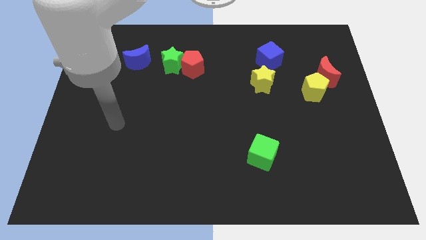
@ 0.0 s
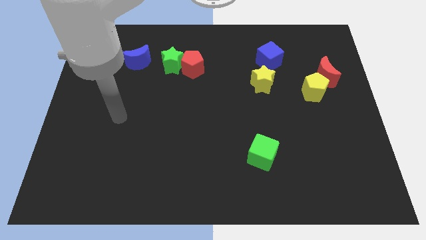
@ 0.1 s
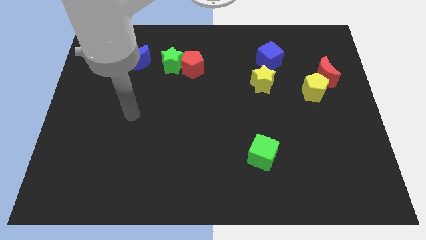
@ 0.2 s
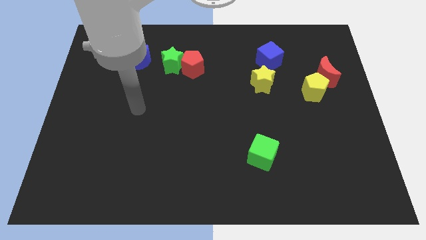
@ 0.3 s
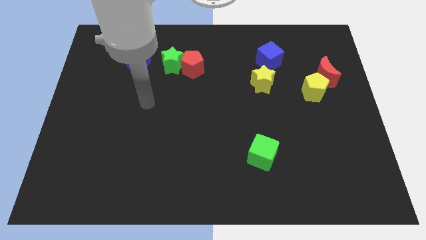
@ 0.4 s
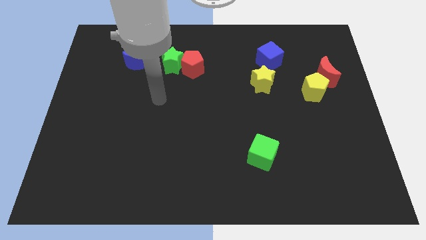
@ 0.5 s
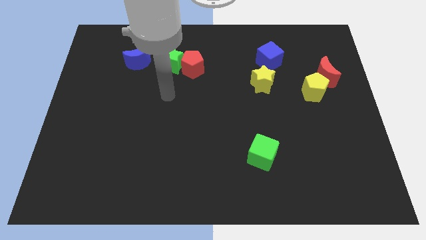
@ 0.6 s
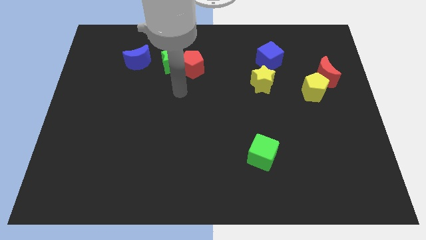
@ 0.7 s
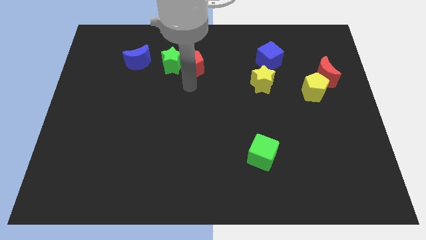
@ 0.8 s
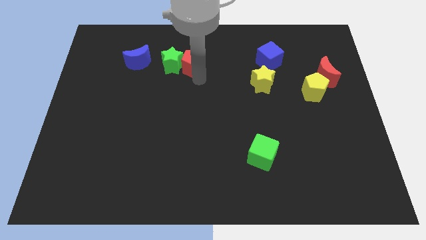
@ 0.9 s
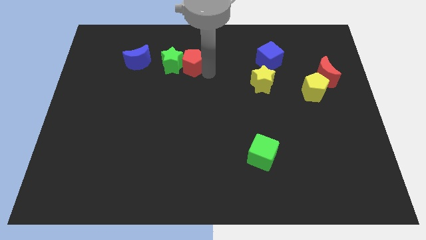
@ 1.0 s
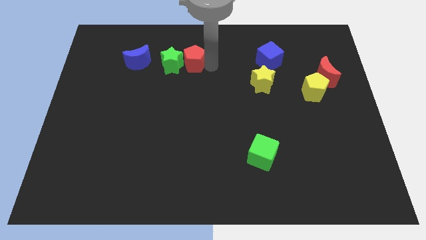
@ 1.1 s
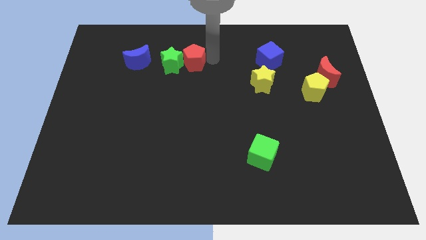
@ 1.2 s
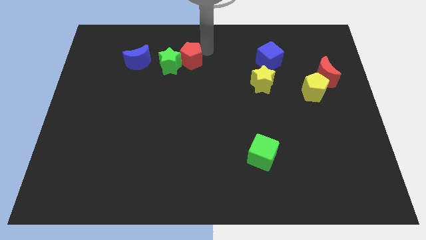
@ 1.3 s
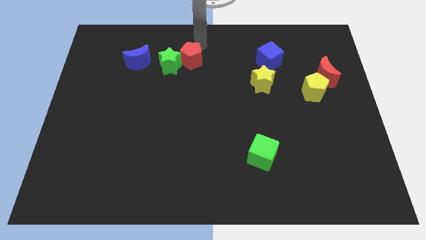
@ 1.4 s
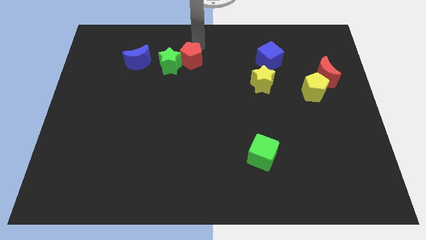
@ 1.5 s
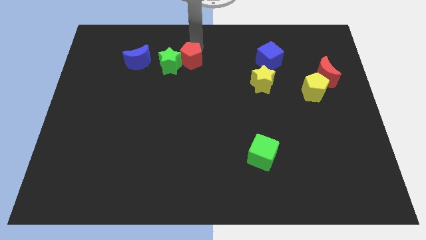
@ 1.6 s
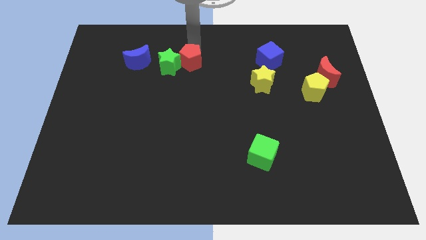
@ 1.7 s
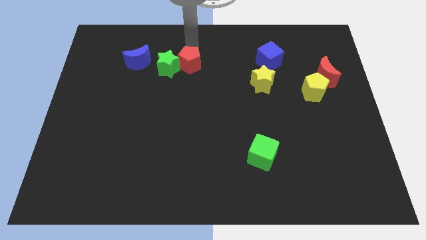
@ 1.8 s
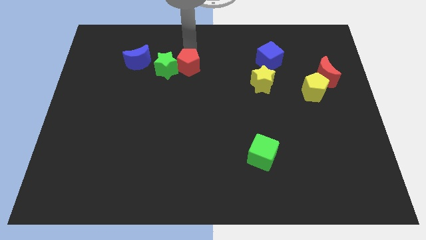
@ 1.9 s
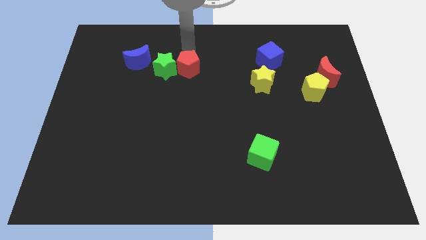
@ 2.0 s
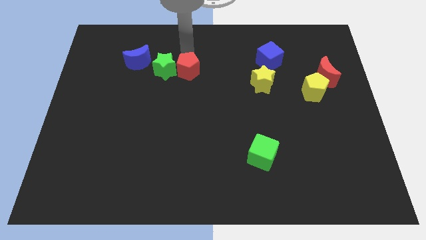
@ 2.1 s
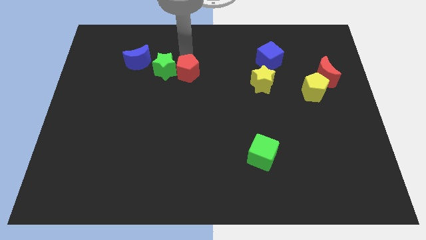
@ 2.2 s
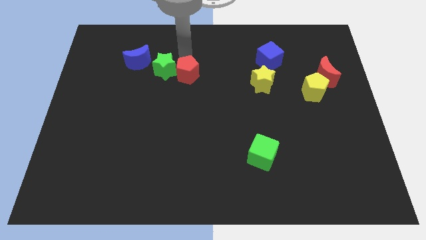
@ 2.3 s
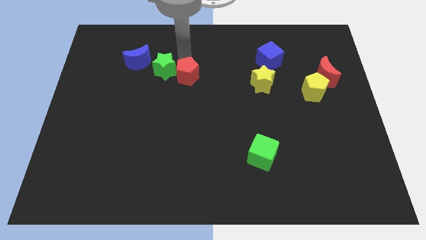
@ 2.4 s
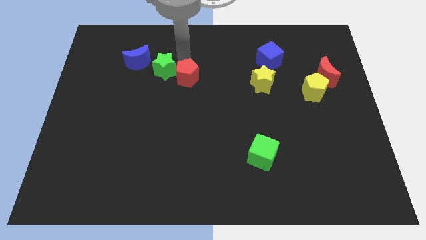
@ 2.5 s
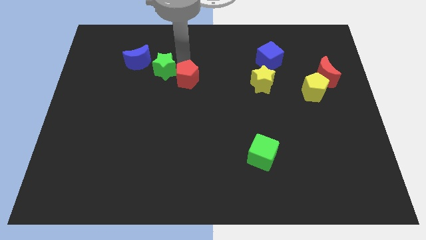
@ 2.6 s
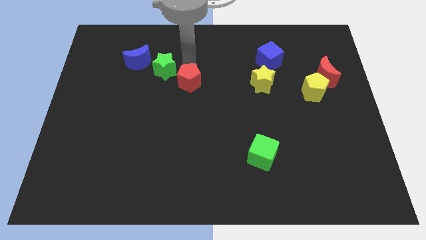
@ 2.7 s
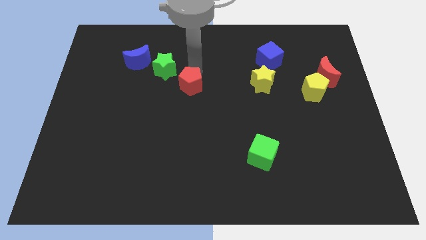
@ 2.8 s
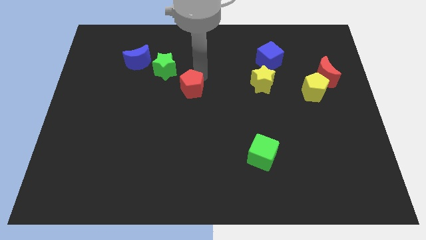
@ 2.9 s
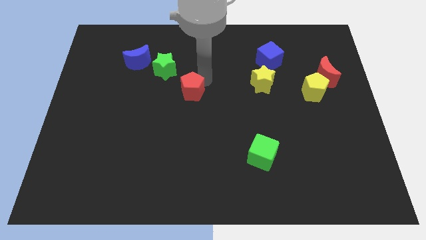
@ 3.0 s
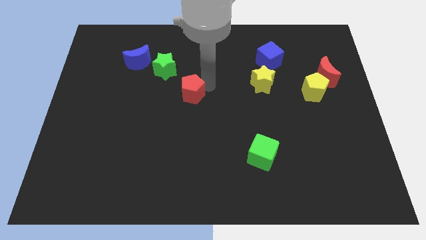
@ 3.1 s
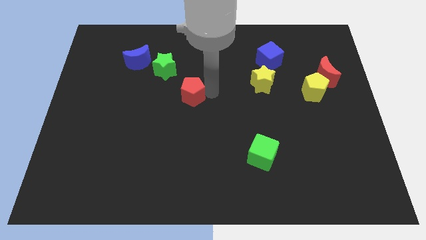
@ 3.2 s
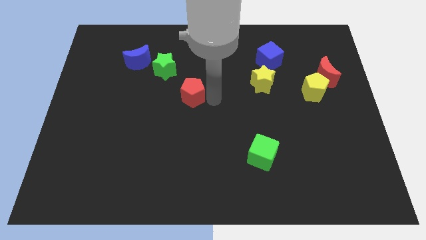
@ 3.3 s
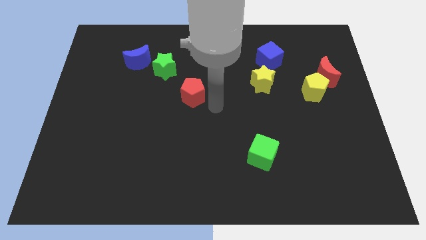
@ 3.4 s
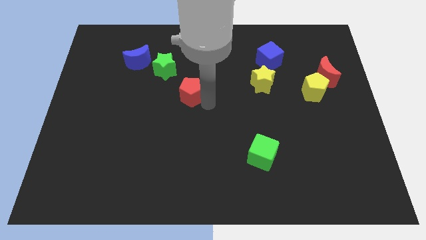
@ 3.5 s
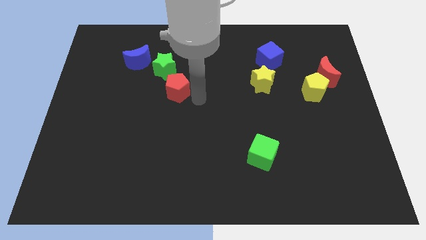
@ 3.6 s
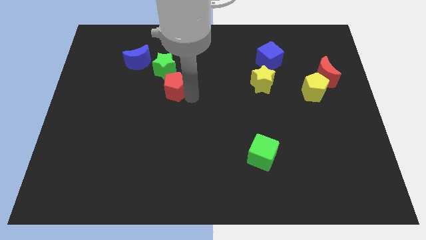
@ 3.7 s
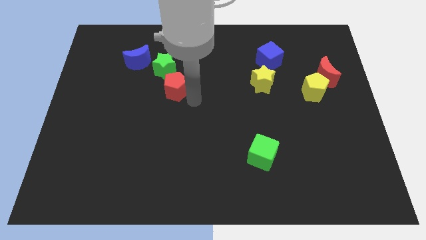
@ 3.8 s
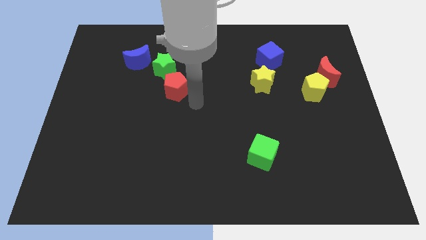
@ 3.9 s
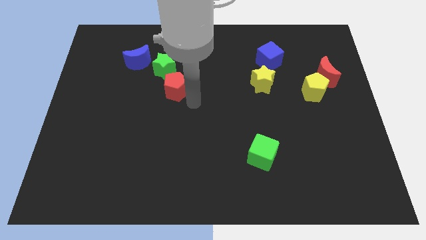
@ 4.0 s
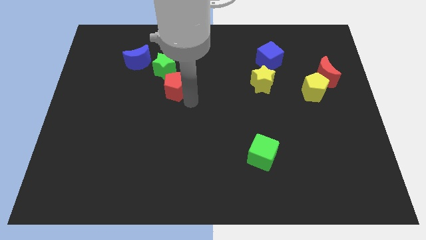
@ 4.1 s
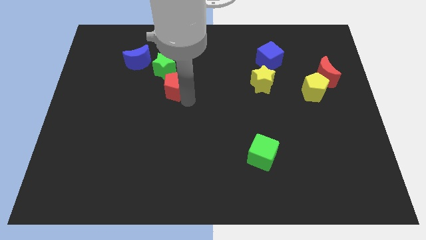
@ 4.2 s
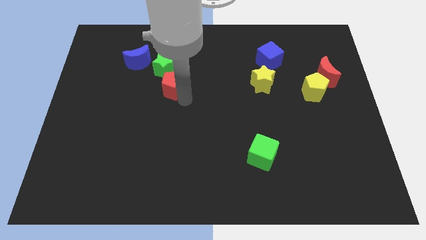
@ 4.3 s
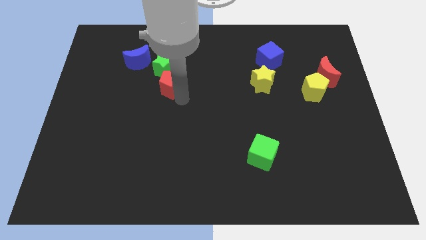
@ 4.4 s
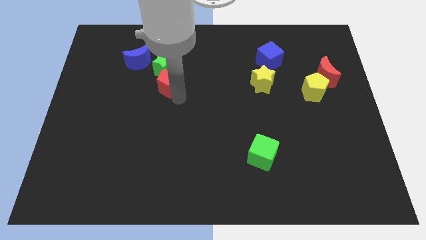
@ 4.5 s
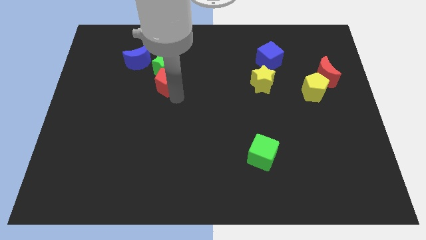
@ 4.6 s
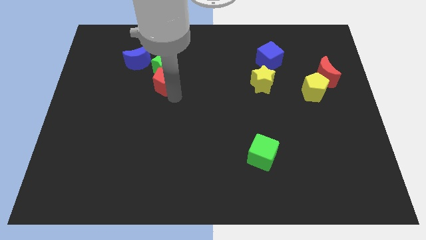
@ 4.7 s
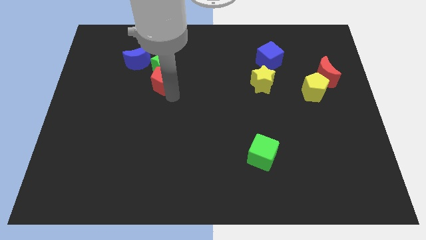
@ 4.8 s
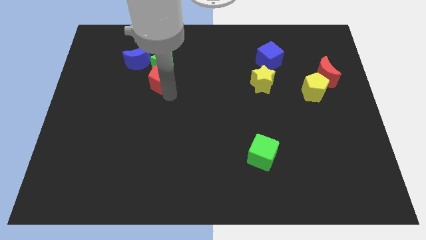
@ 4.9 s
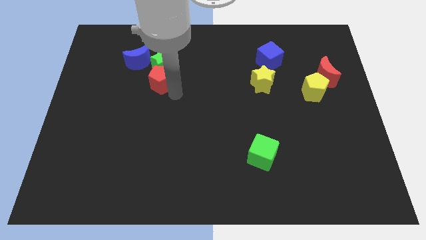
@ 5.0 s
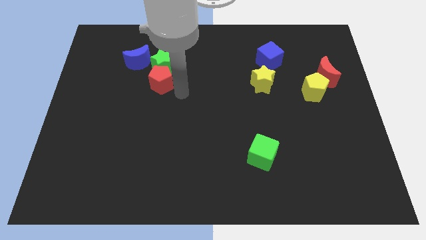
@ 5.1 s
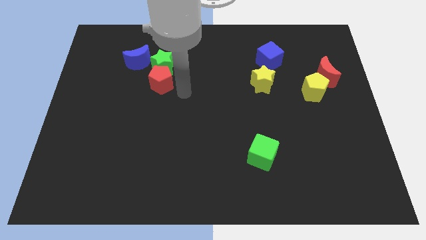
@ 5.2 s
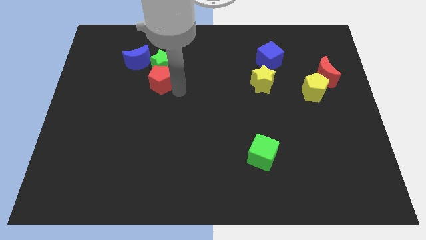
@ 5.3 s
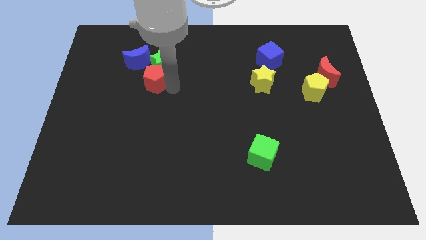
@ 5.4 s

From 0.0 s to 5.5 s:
slide the red pentagon left a little bit

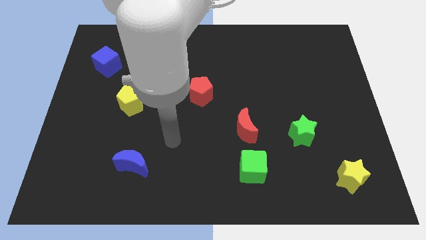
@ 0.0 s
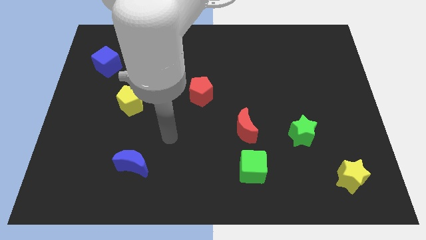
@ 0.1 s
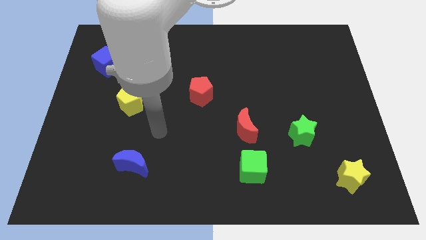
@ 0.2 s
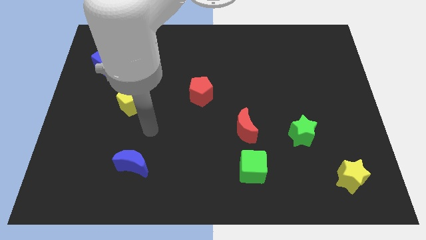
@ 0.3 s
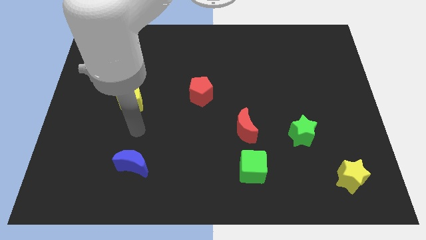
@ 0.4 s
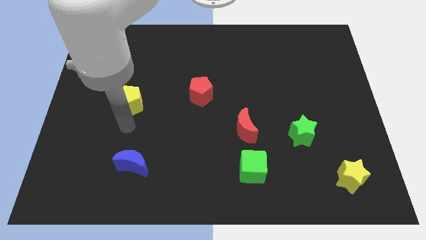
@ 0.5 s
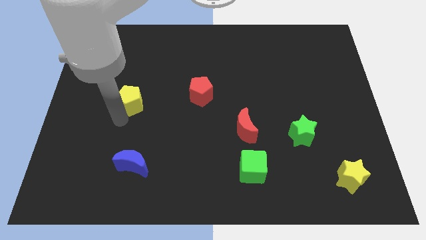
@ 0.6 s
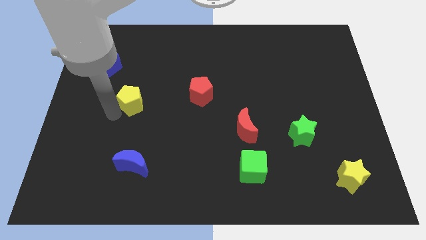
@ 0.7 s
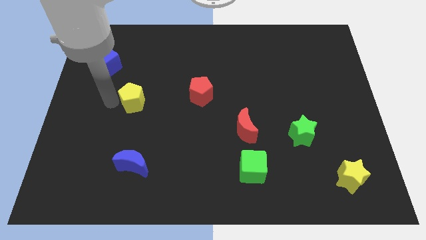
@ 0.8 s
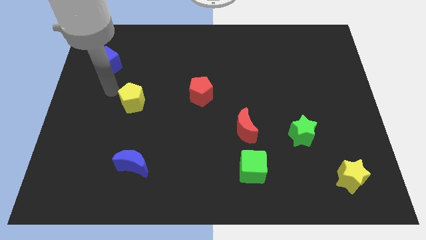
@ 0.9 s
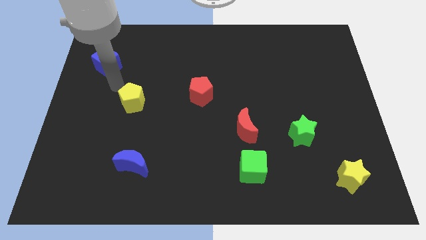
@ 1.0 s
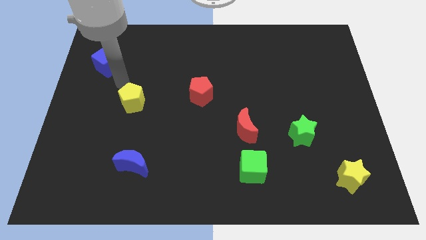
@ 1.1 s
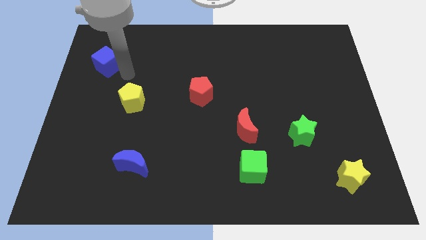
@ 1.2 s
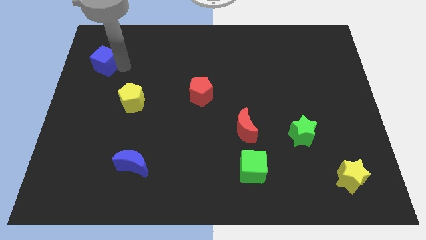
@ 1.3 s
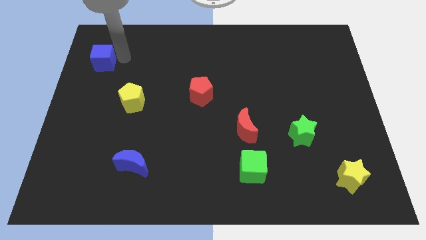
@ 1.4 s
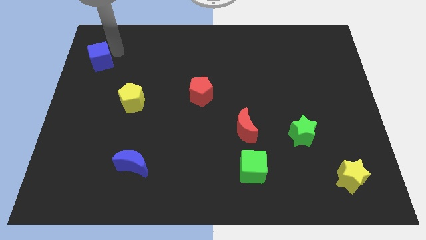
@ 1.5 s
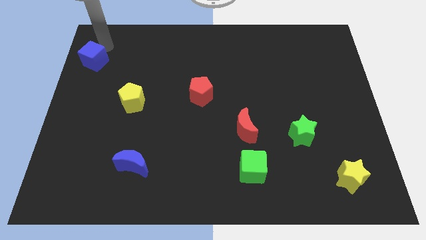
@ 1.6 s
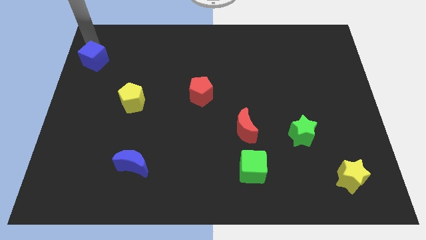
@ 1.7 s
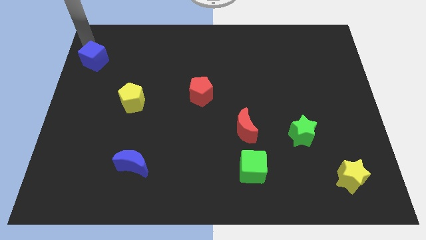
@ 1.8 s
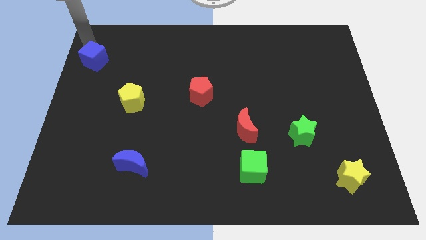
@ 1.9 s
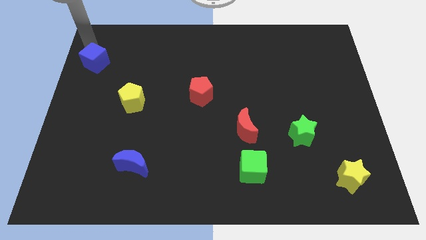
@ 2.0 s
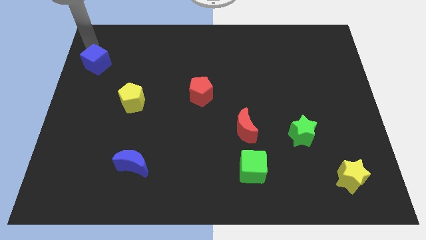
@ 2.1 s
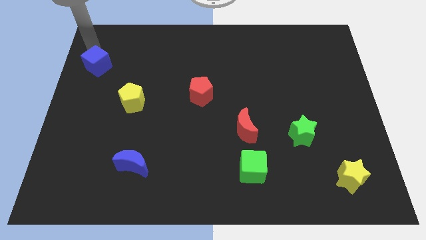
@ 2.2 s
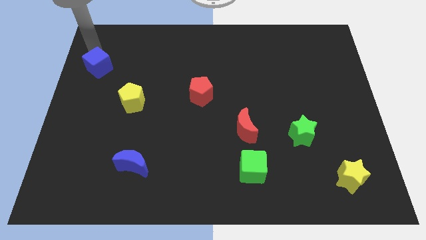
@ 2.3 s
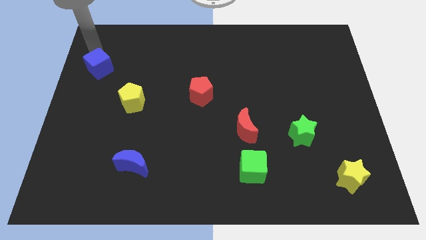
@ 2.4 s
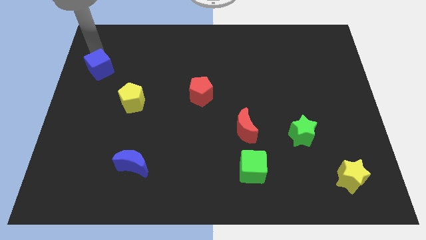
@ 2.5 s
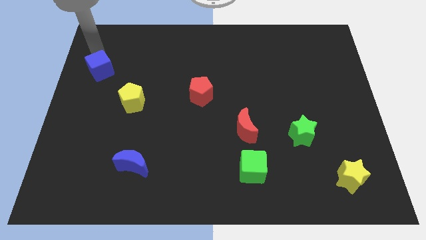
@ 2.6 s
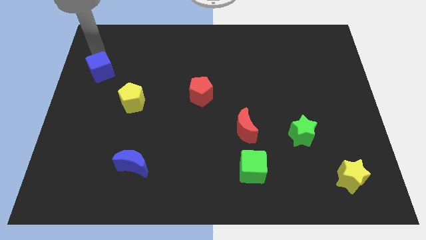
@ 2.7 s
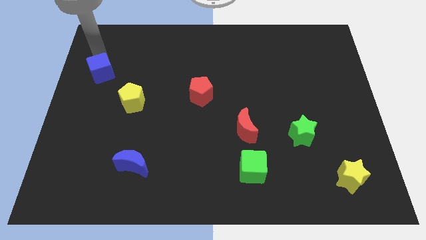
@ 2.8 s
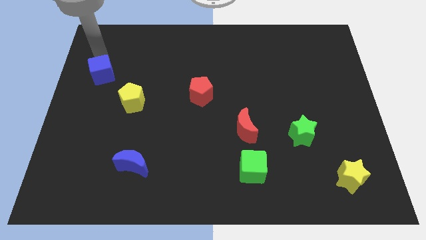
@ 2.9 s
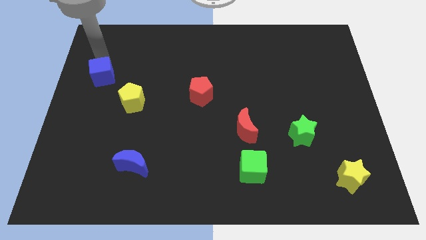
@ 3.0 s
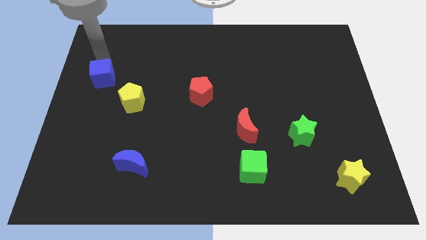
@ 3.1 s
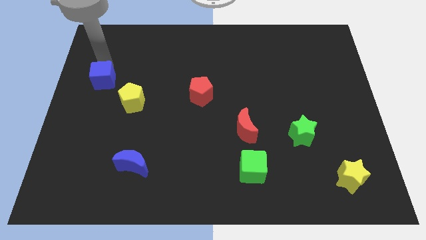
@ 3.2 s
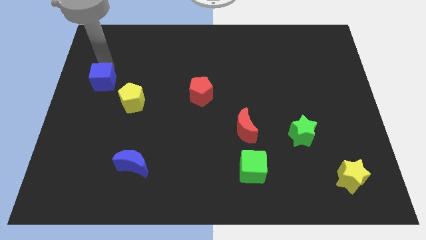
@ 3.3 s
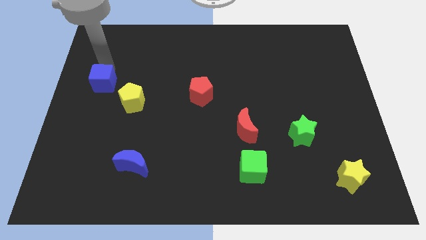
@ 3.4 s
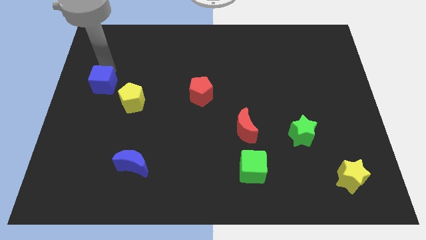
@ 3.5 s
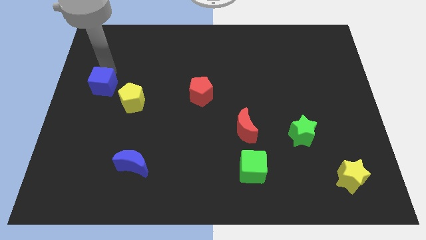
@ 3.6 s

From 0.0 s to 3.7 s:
move the blue cube a bit downwards
